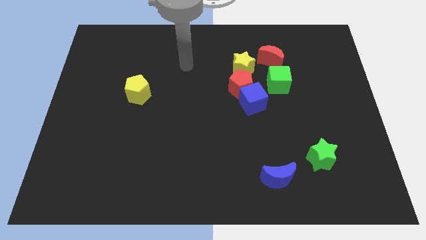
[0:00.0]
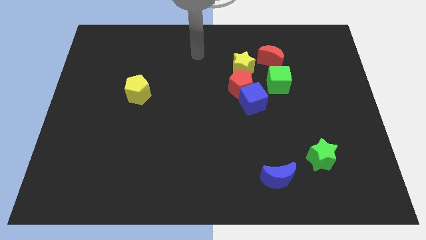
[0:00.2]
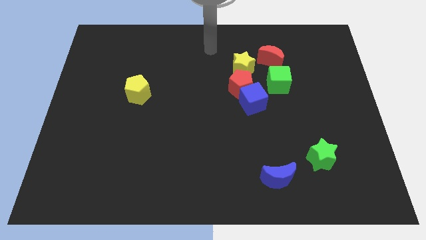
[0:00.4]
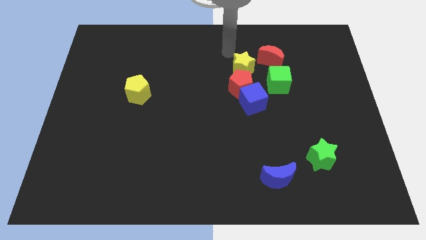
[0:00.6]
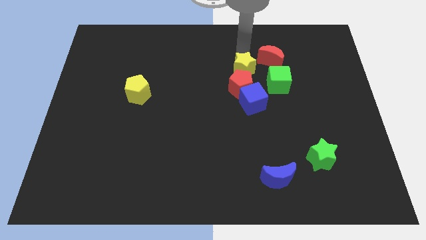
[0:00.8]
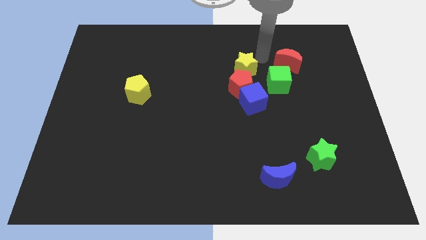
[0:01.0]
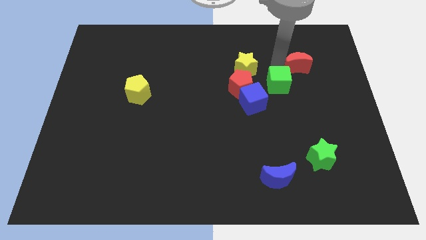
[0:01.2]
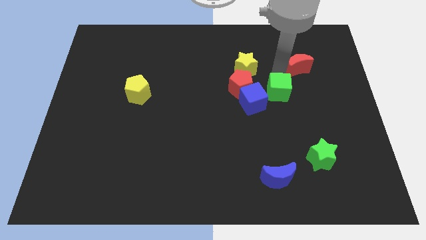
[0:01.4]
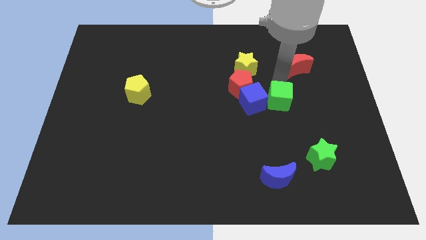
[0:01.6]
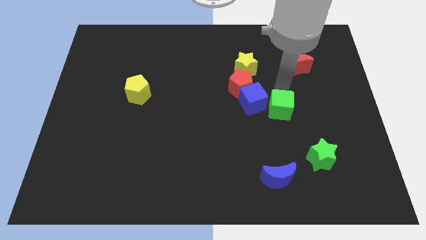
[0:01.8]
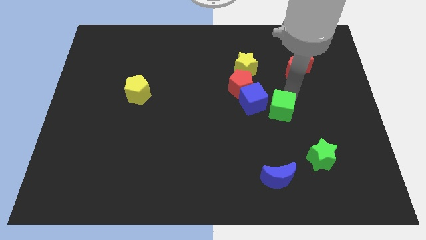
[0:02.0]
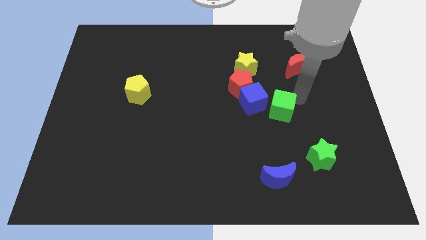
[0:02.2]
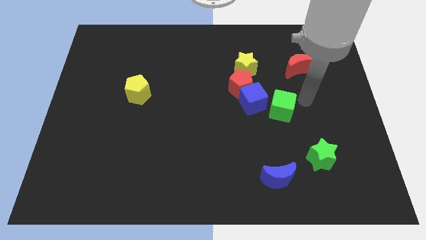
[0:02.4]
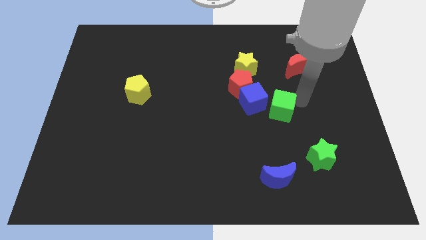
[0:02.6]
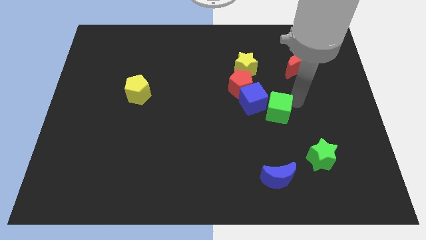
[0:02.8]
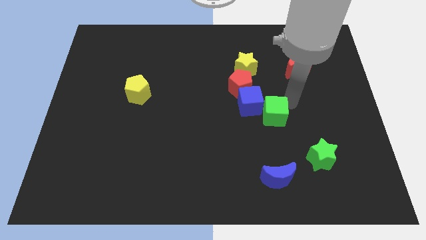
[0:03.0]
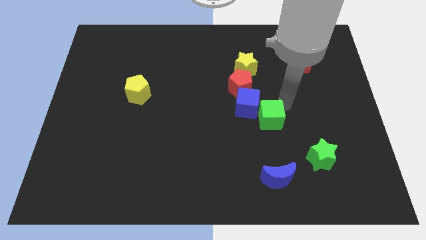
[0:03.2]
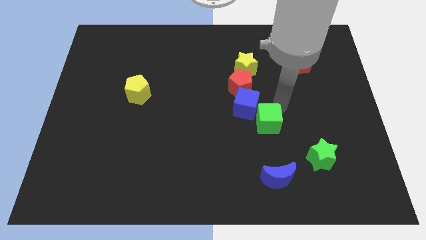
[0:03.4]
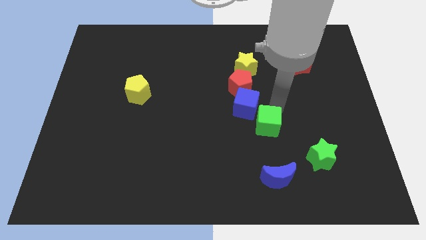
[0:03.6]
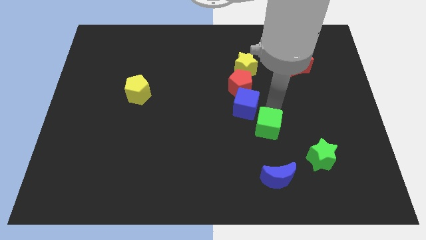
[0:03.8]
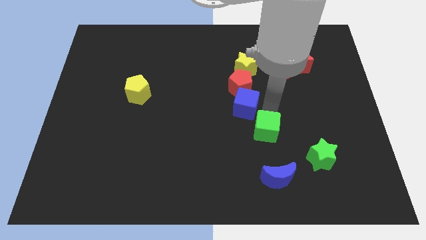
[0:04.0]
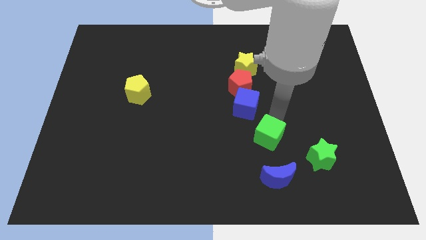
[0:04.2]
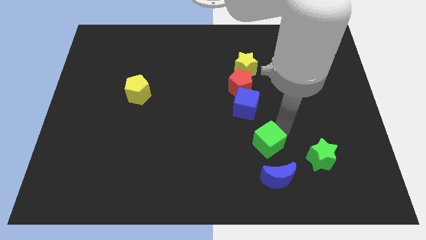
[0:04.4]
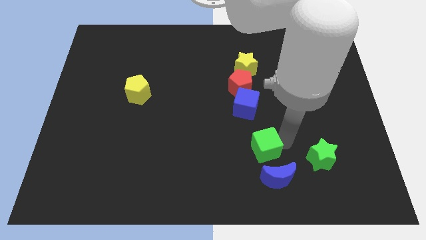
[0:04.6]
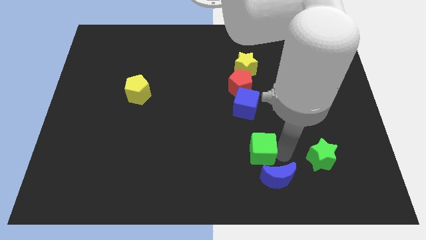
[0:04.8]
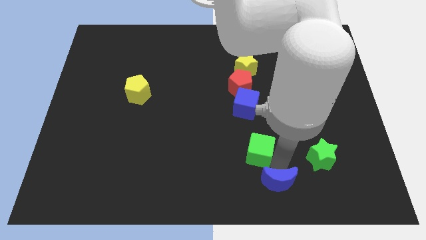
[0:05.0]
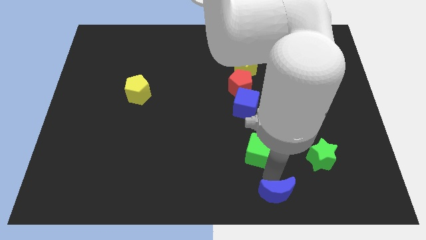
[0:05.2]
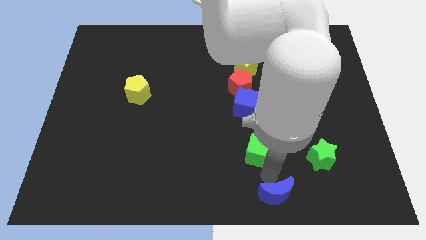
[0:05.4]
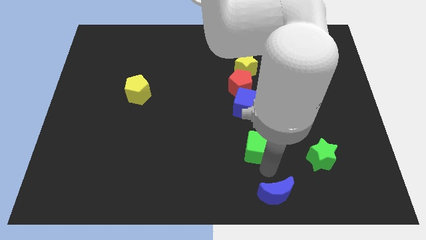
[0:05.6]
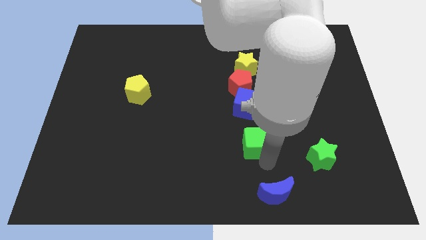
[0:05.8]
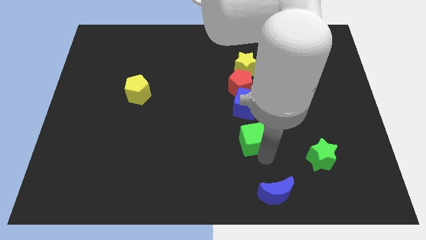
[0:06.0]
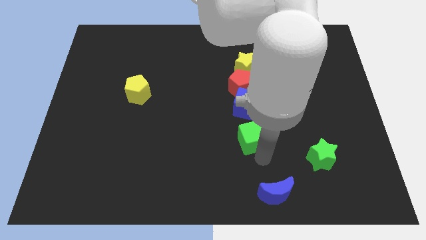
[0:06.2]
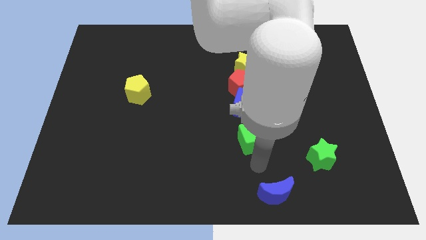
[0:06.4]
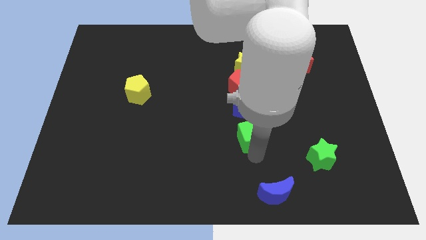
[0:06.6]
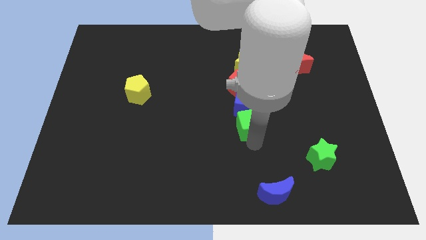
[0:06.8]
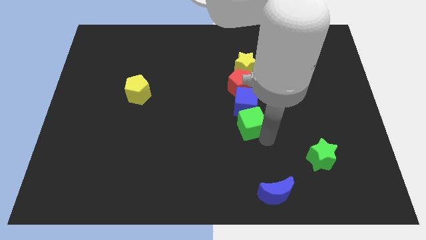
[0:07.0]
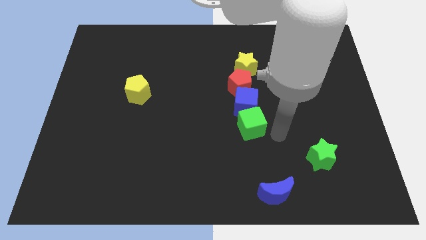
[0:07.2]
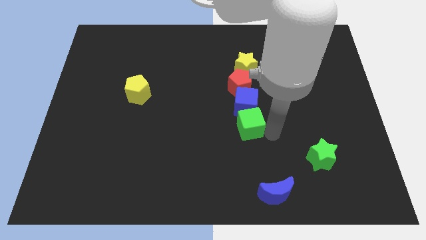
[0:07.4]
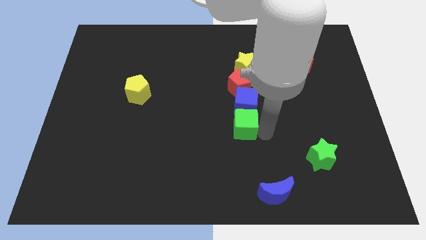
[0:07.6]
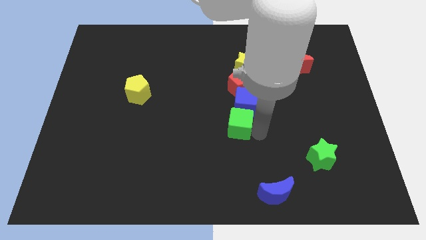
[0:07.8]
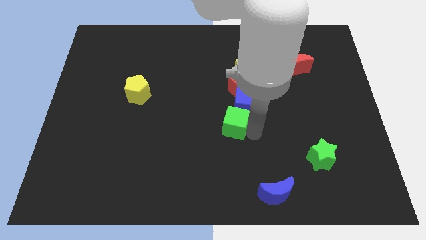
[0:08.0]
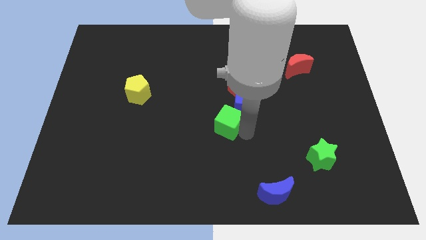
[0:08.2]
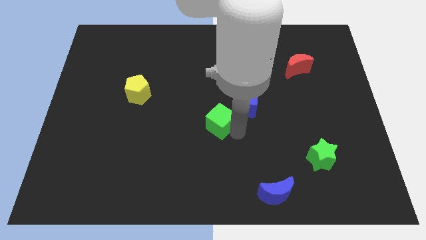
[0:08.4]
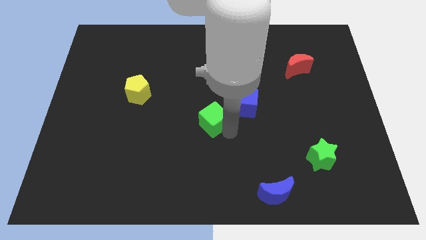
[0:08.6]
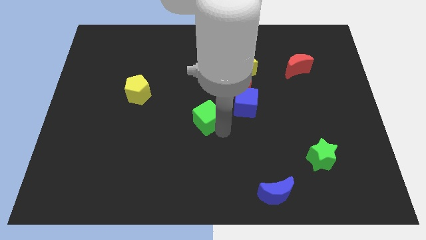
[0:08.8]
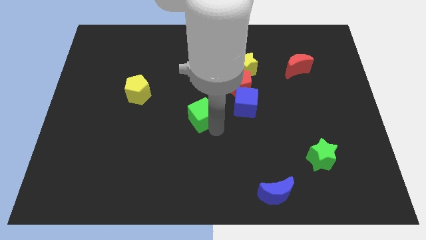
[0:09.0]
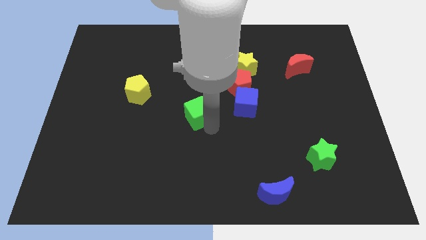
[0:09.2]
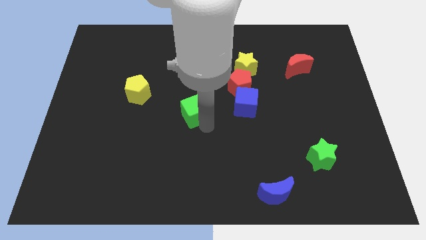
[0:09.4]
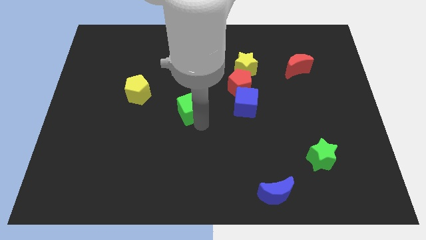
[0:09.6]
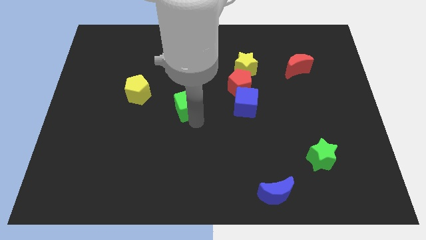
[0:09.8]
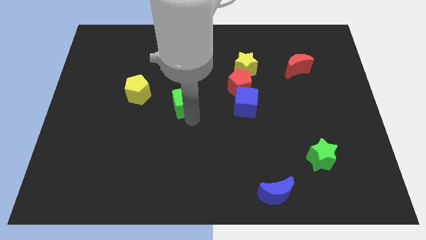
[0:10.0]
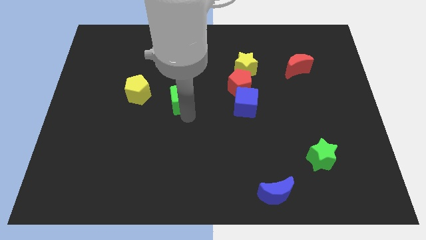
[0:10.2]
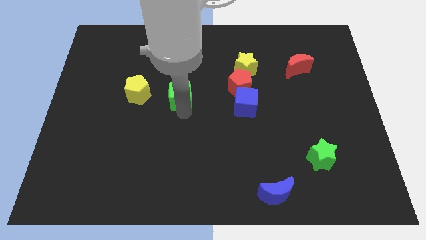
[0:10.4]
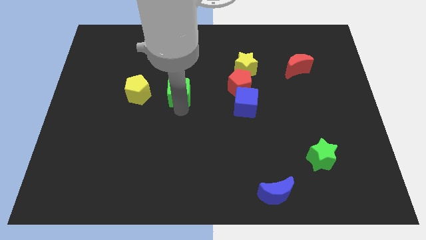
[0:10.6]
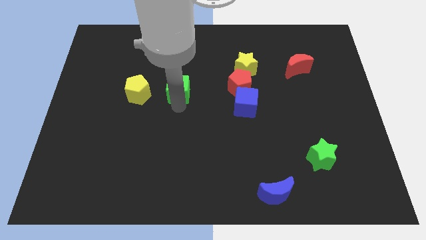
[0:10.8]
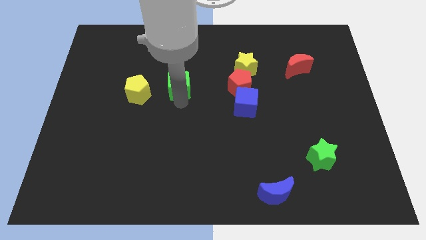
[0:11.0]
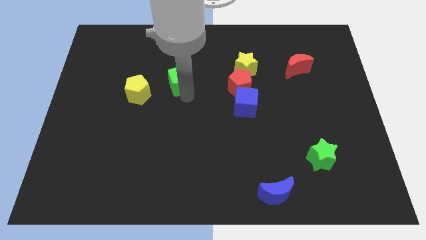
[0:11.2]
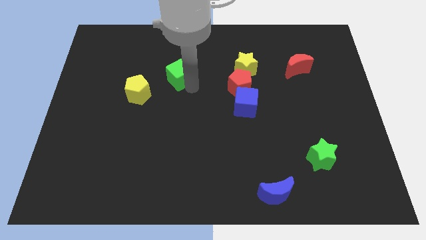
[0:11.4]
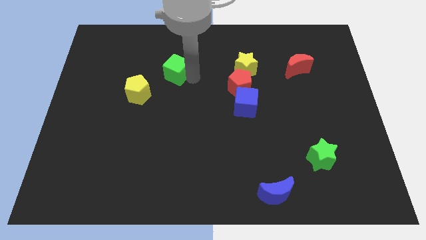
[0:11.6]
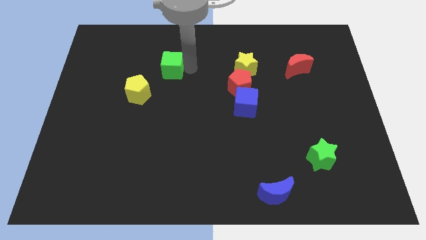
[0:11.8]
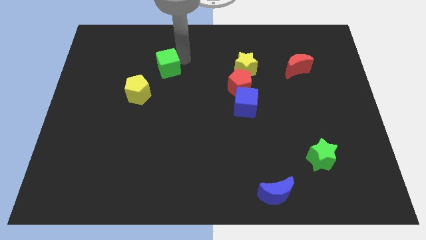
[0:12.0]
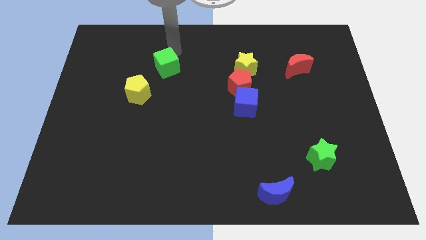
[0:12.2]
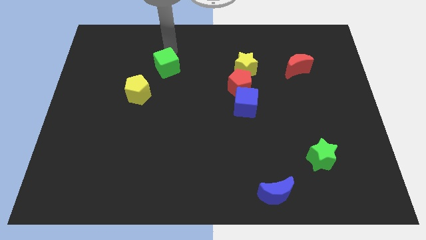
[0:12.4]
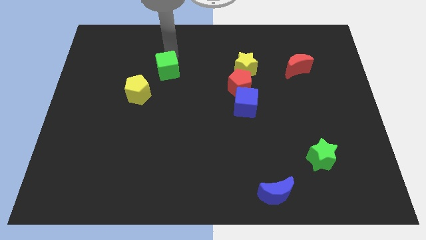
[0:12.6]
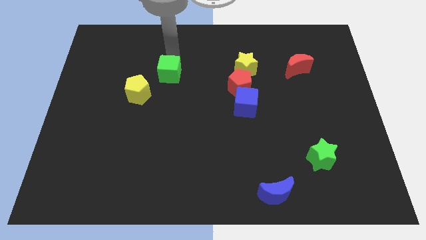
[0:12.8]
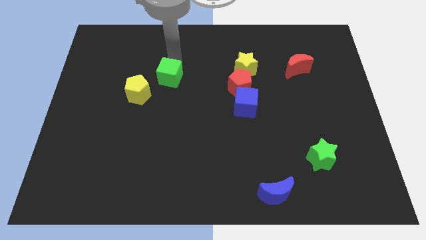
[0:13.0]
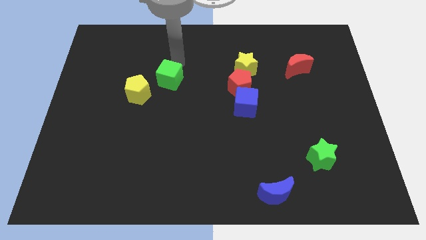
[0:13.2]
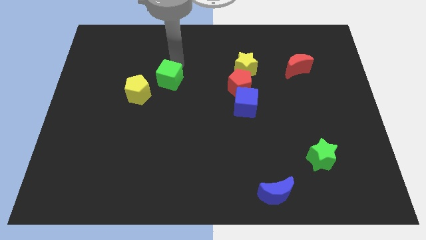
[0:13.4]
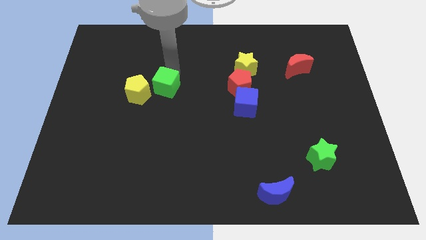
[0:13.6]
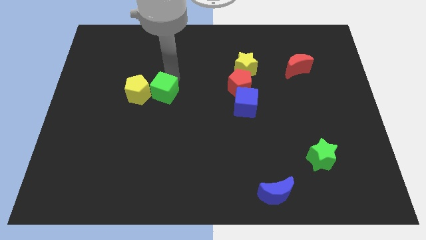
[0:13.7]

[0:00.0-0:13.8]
push the green cube next to the yellow pentagon

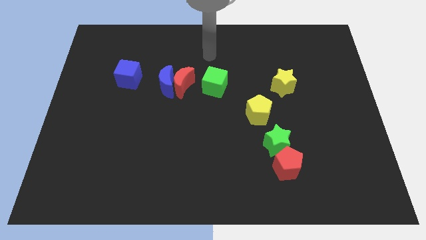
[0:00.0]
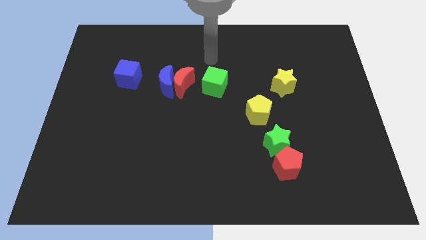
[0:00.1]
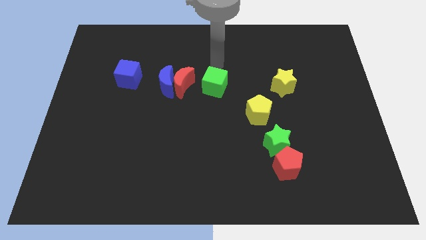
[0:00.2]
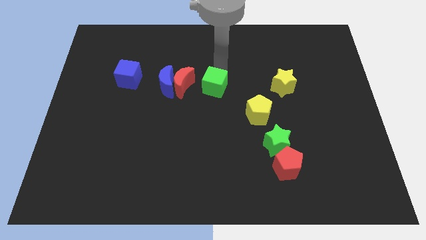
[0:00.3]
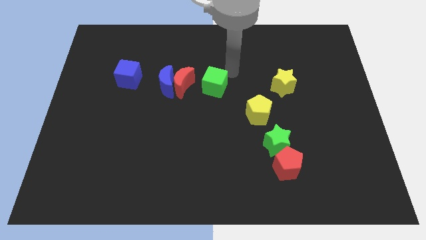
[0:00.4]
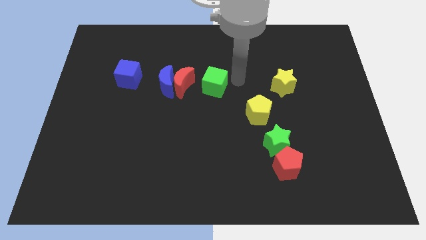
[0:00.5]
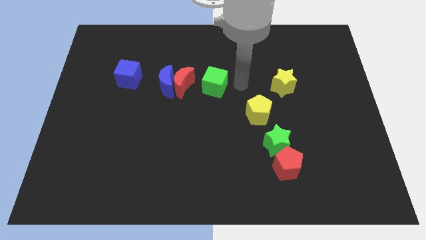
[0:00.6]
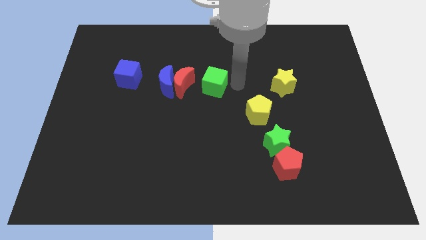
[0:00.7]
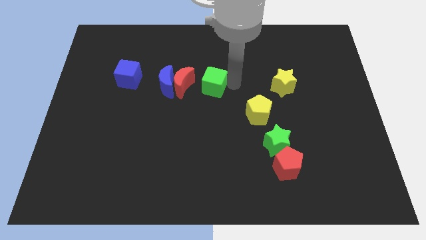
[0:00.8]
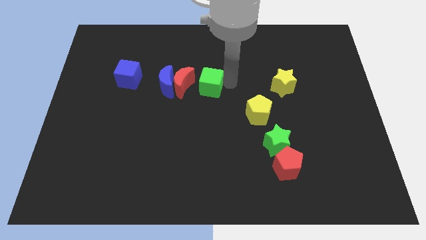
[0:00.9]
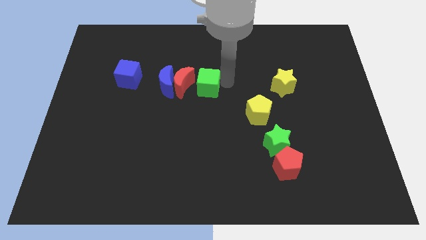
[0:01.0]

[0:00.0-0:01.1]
move the green cube towards the red moon
